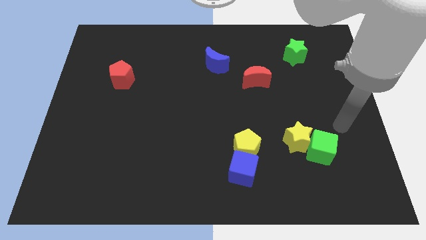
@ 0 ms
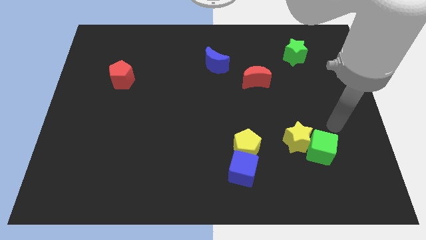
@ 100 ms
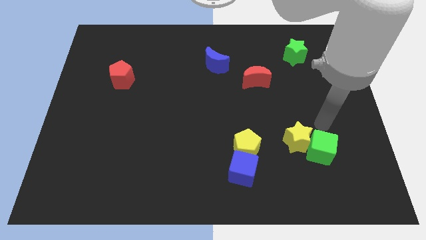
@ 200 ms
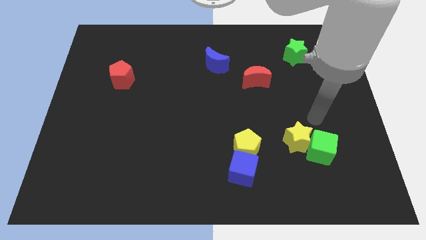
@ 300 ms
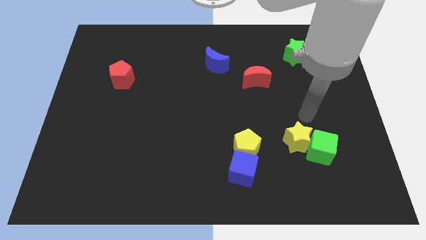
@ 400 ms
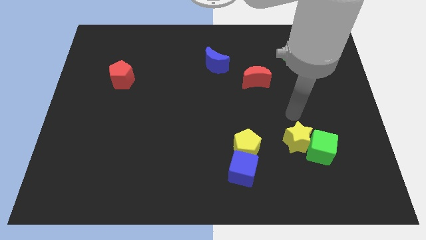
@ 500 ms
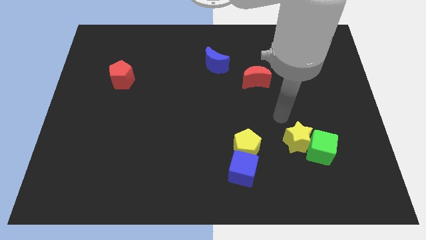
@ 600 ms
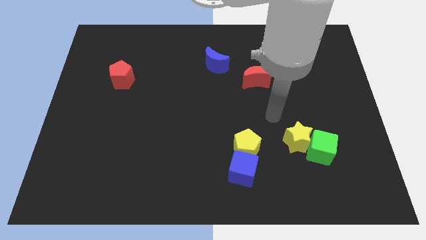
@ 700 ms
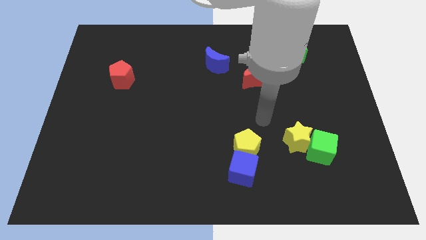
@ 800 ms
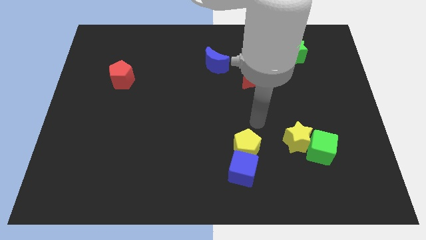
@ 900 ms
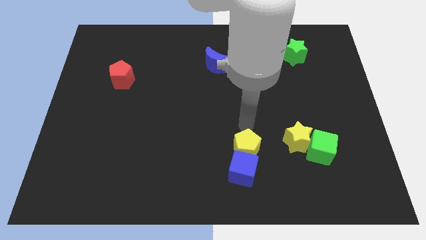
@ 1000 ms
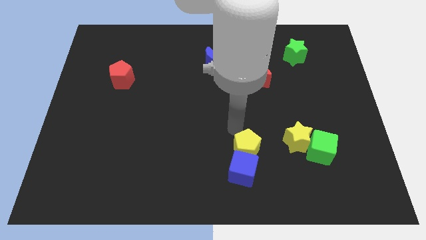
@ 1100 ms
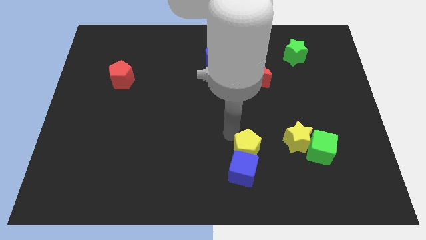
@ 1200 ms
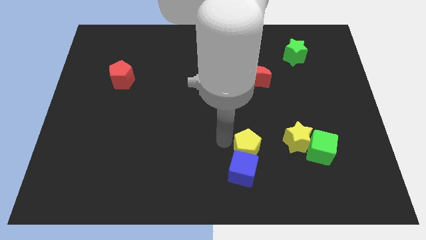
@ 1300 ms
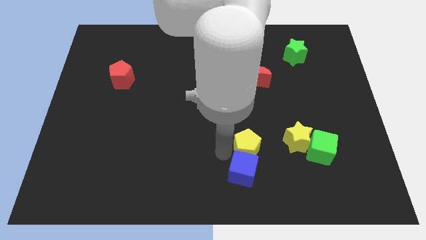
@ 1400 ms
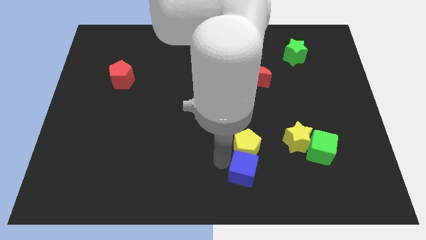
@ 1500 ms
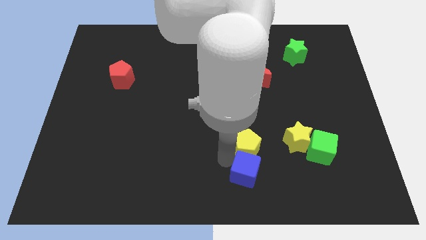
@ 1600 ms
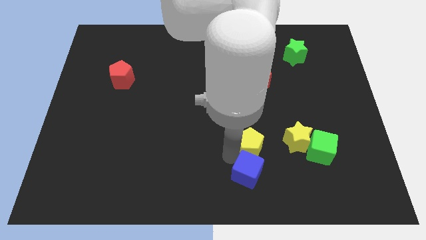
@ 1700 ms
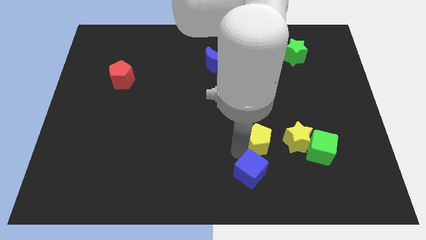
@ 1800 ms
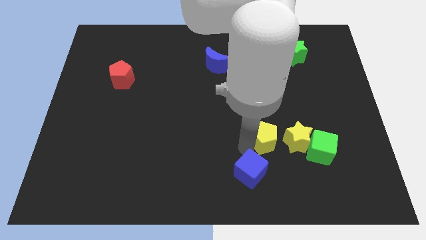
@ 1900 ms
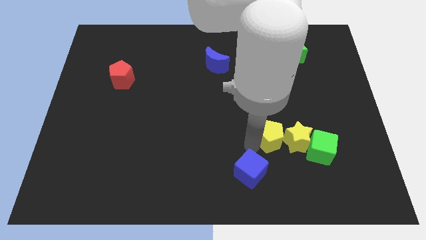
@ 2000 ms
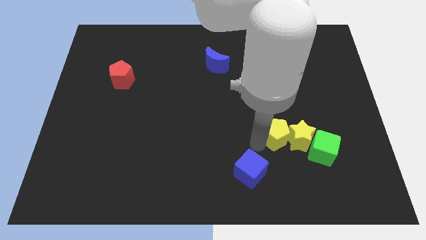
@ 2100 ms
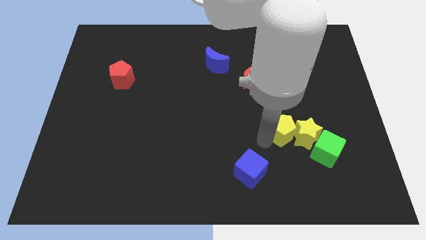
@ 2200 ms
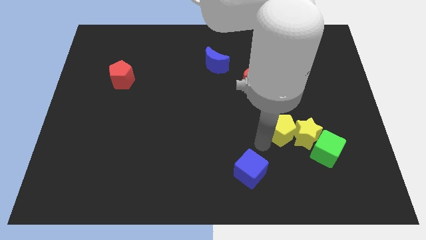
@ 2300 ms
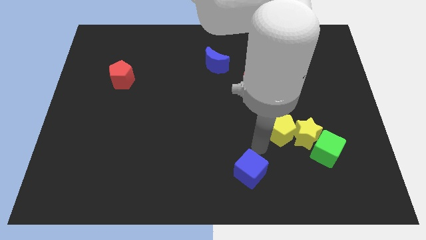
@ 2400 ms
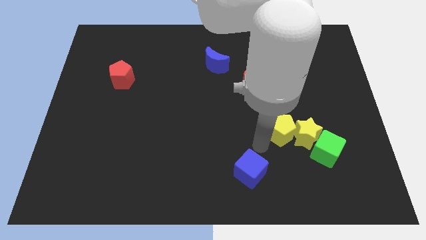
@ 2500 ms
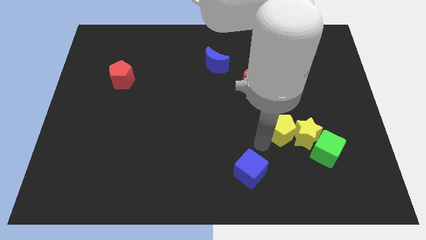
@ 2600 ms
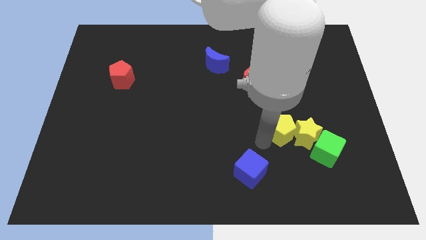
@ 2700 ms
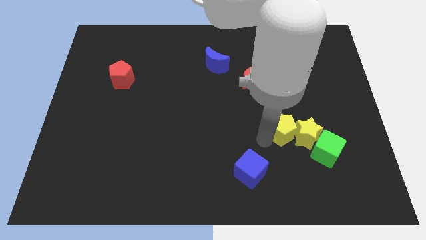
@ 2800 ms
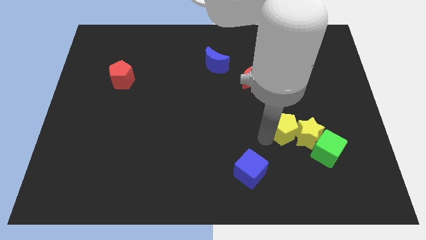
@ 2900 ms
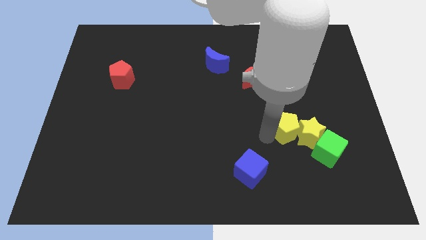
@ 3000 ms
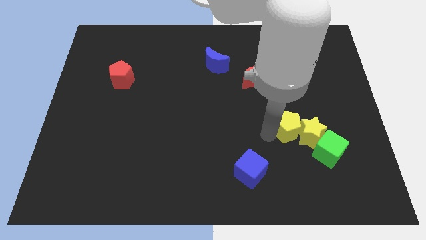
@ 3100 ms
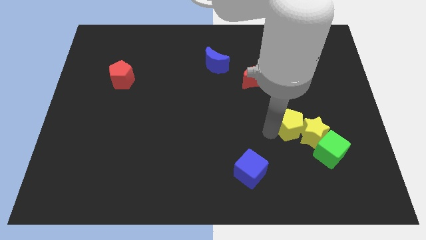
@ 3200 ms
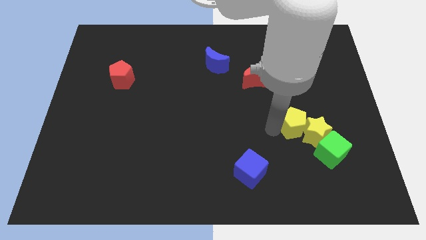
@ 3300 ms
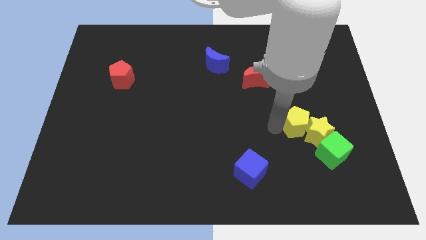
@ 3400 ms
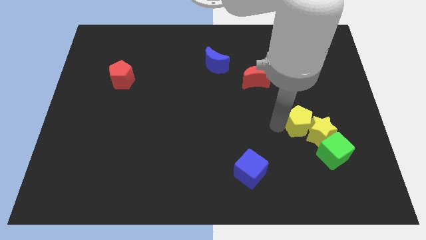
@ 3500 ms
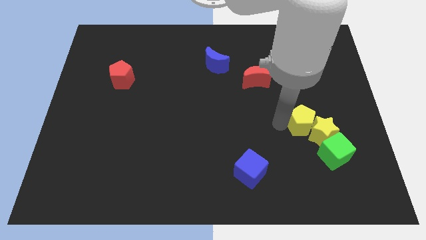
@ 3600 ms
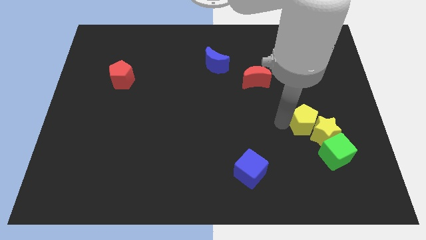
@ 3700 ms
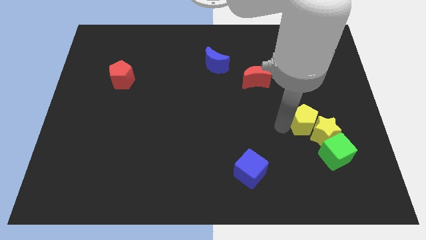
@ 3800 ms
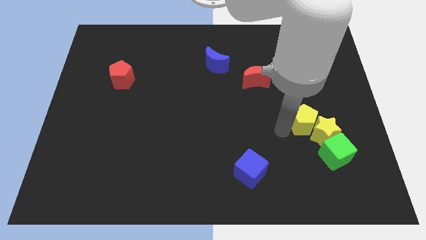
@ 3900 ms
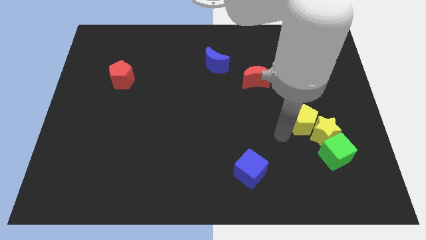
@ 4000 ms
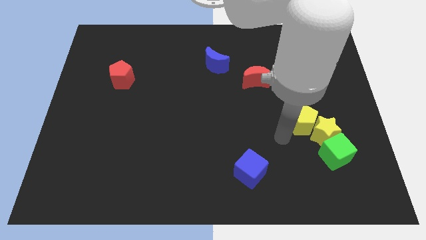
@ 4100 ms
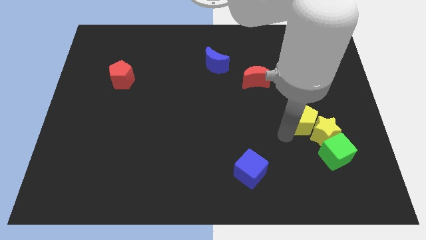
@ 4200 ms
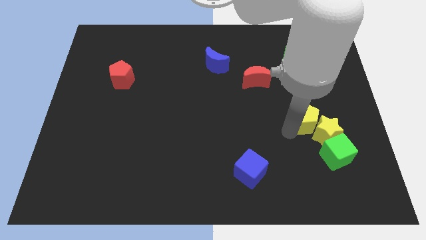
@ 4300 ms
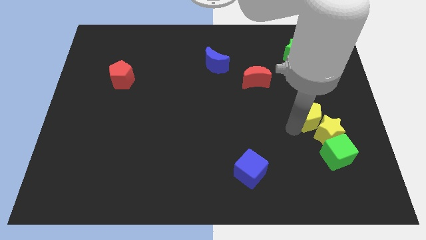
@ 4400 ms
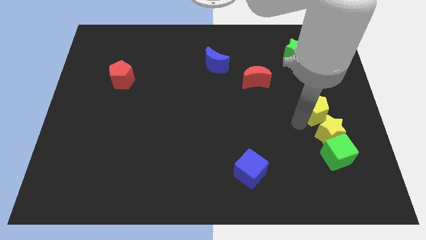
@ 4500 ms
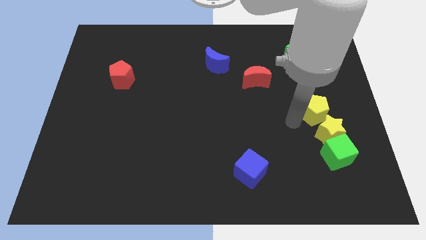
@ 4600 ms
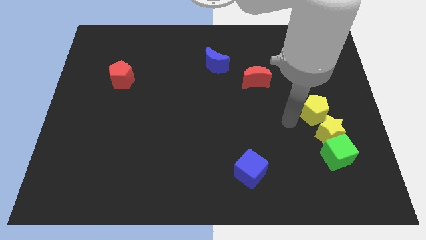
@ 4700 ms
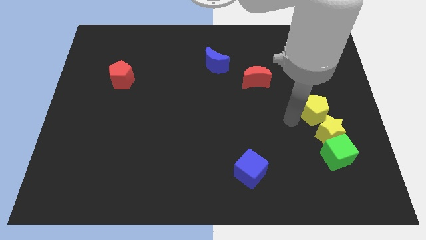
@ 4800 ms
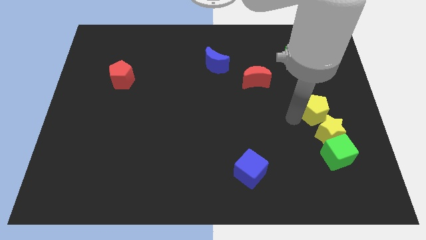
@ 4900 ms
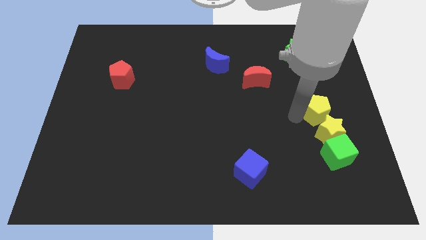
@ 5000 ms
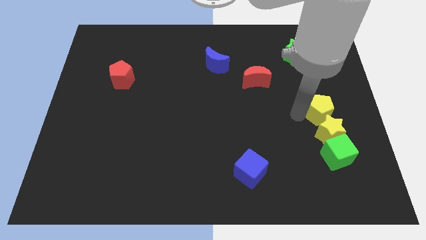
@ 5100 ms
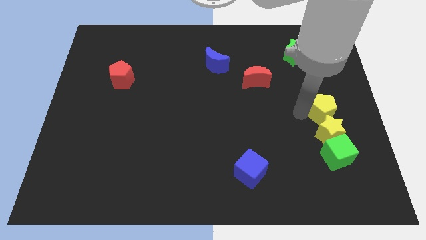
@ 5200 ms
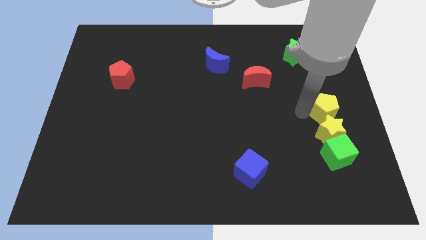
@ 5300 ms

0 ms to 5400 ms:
slide the yellow pentagon to the right side

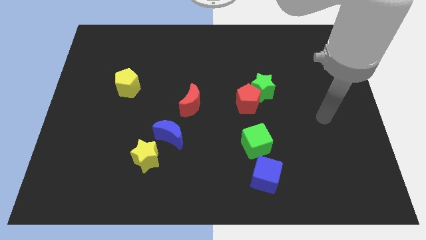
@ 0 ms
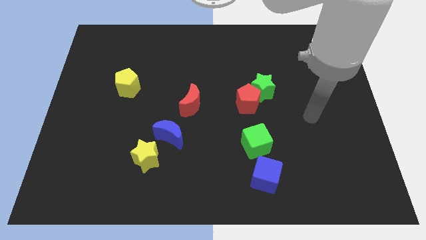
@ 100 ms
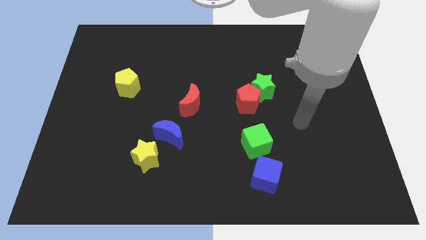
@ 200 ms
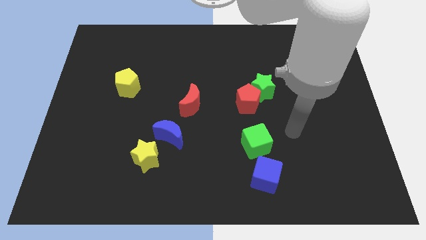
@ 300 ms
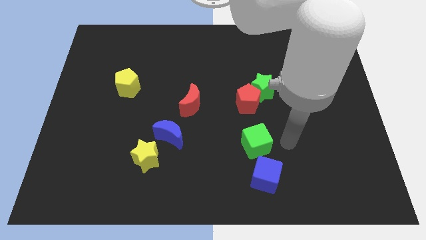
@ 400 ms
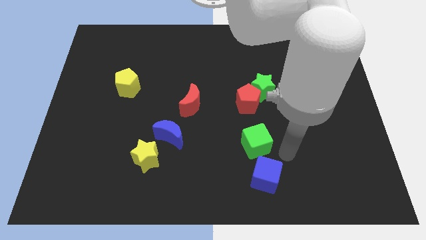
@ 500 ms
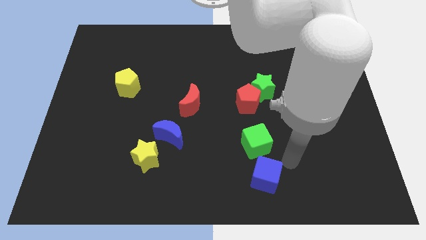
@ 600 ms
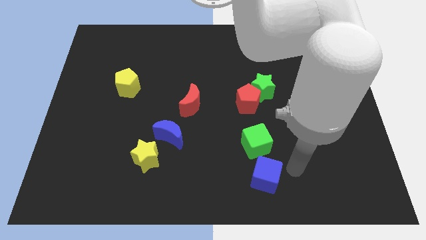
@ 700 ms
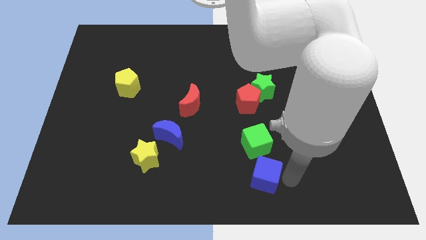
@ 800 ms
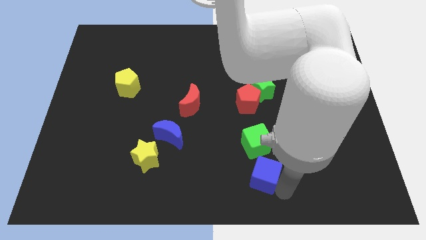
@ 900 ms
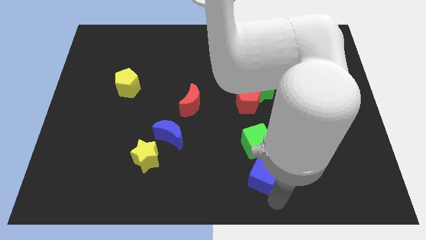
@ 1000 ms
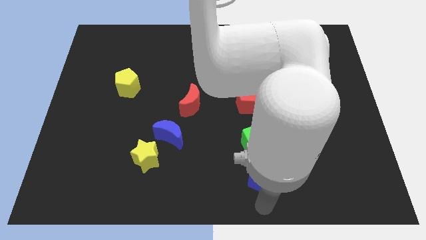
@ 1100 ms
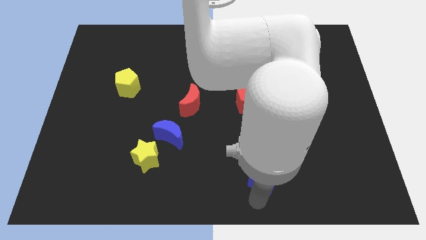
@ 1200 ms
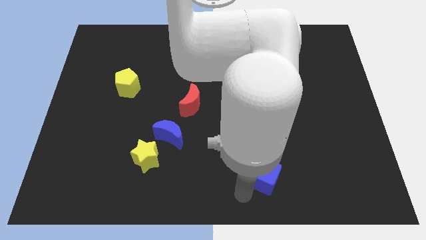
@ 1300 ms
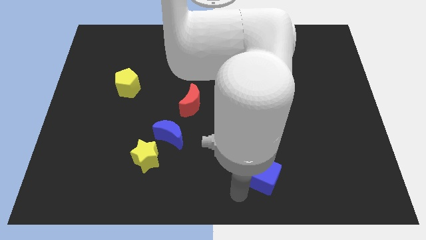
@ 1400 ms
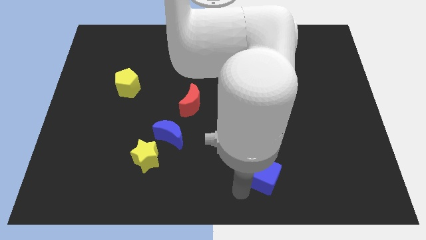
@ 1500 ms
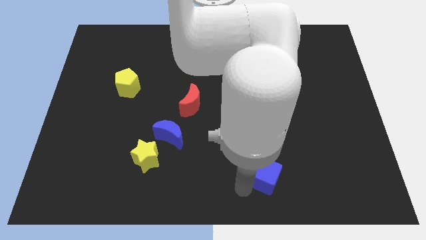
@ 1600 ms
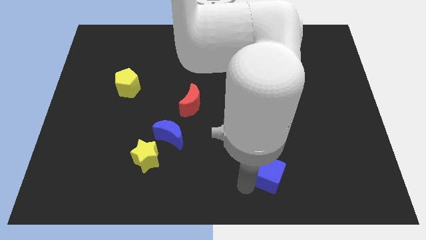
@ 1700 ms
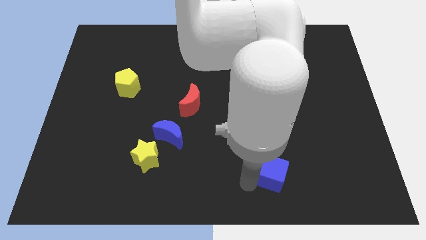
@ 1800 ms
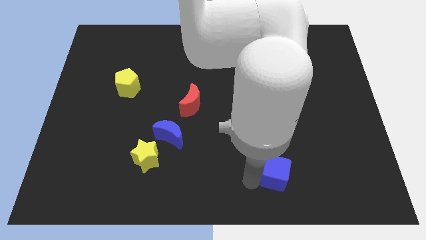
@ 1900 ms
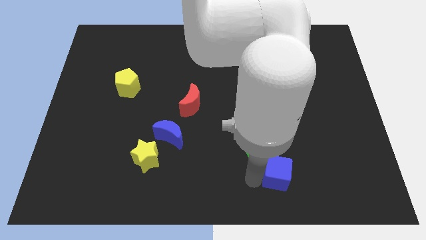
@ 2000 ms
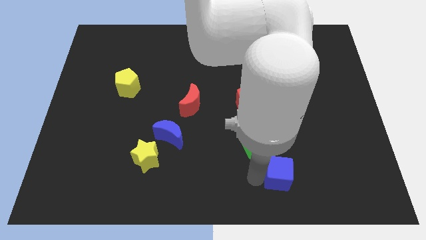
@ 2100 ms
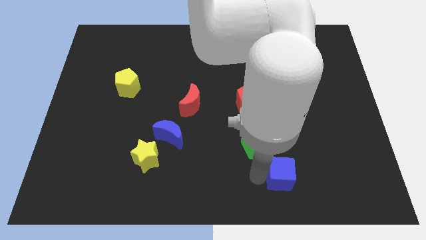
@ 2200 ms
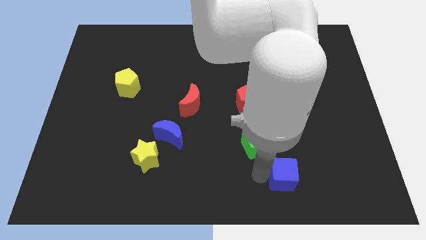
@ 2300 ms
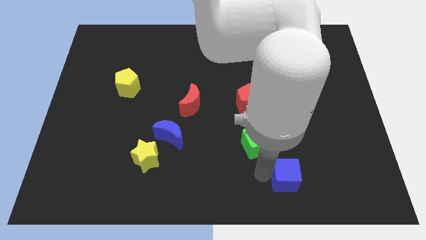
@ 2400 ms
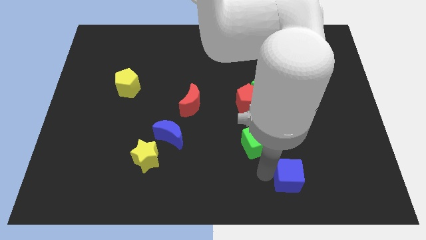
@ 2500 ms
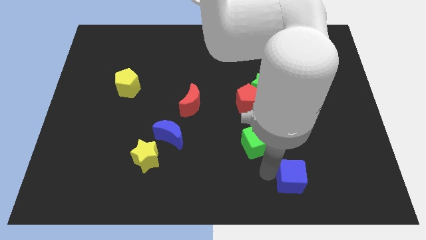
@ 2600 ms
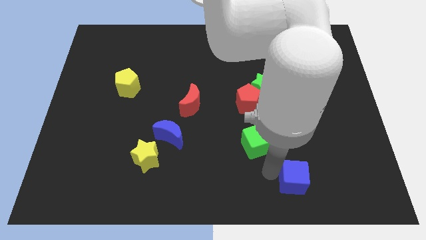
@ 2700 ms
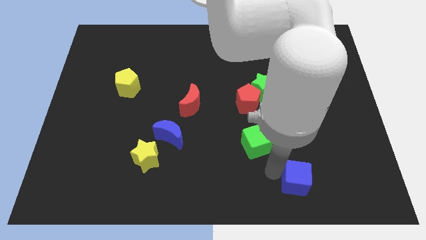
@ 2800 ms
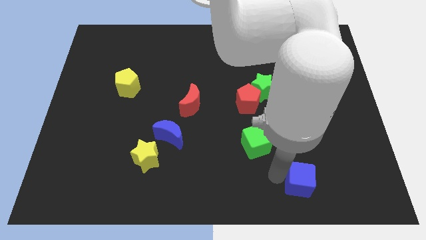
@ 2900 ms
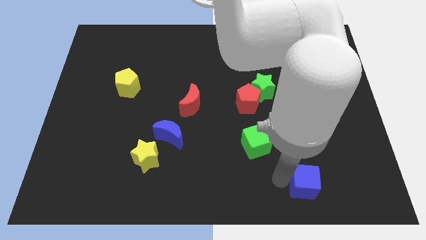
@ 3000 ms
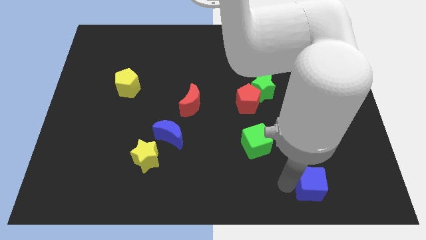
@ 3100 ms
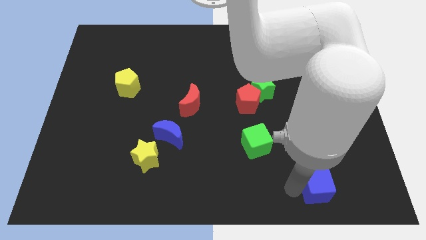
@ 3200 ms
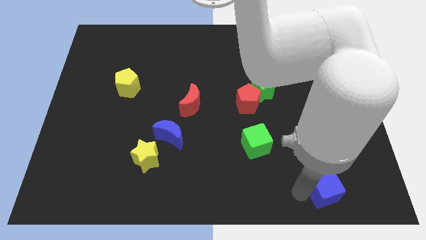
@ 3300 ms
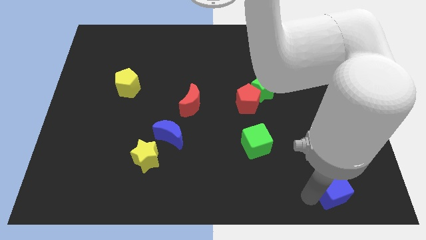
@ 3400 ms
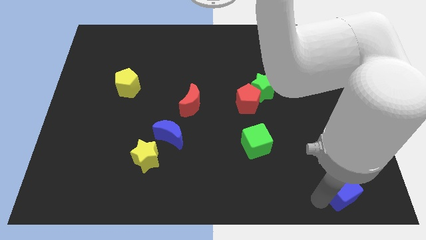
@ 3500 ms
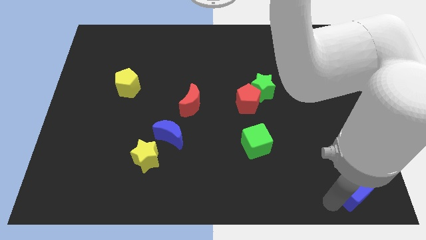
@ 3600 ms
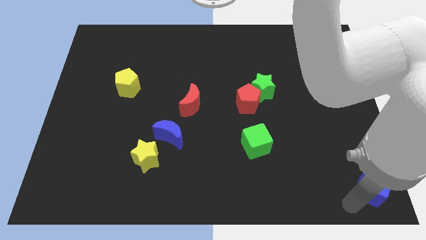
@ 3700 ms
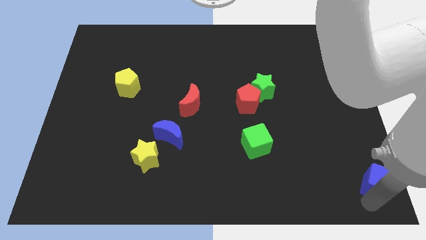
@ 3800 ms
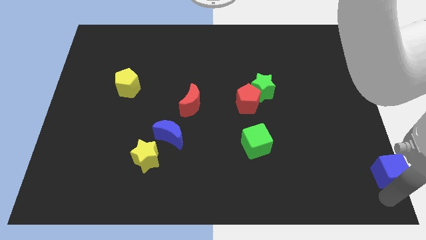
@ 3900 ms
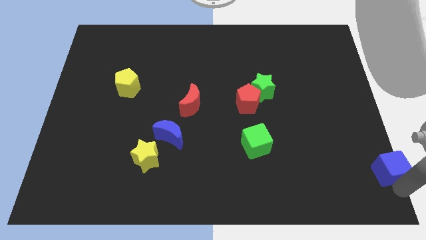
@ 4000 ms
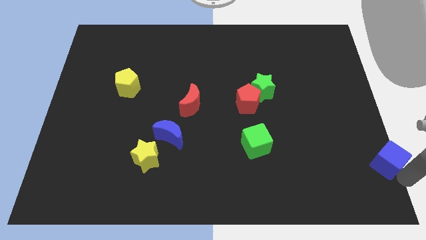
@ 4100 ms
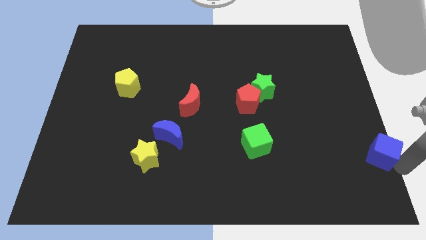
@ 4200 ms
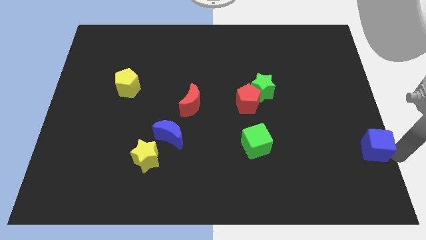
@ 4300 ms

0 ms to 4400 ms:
move the blue cube to the right side of the board
